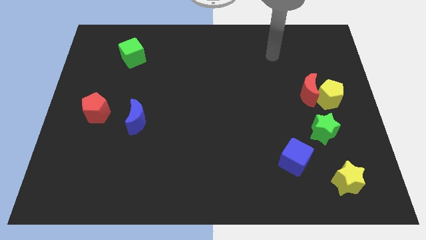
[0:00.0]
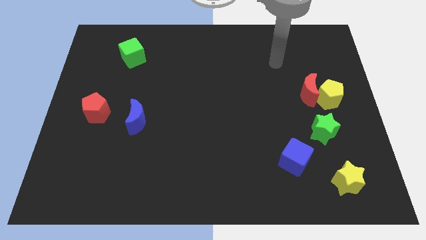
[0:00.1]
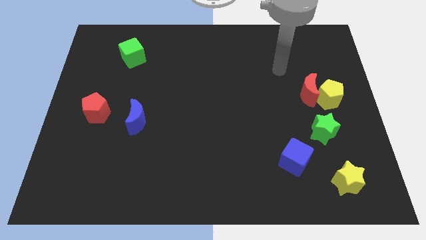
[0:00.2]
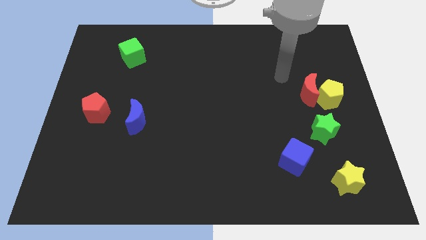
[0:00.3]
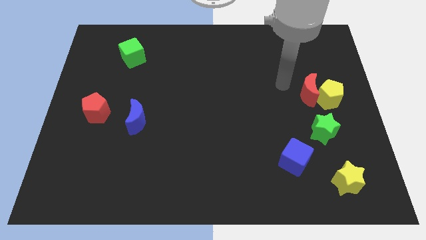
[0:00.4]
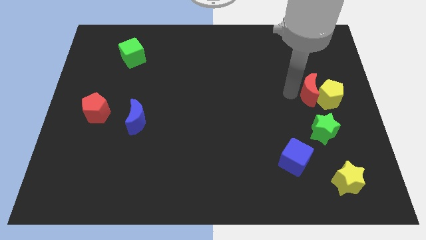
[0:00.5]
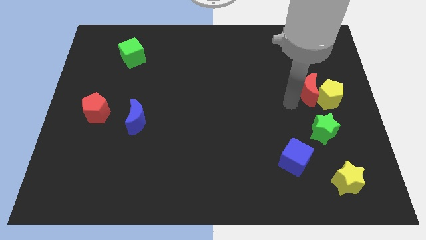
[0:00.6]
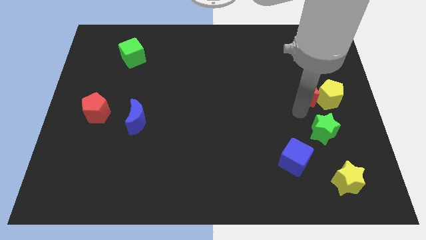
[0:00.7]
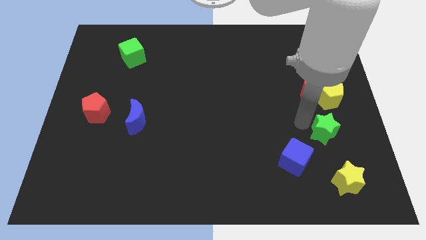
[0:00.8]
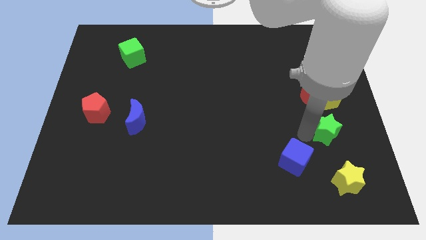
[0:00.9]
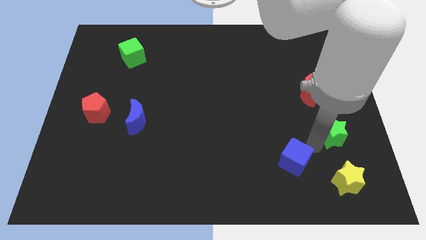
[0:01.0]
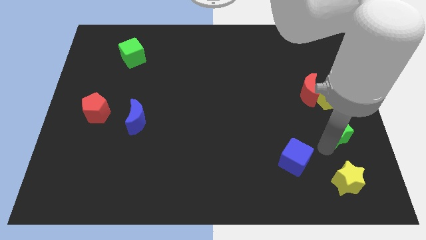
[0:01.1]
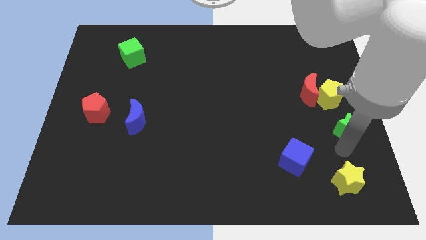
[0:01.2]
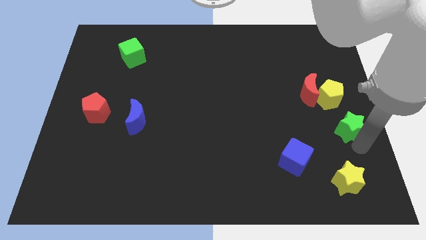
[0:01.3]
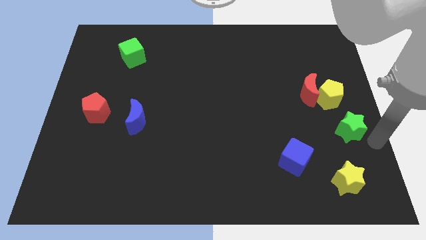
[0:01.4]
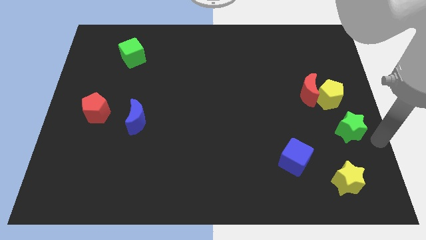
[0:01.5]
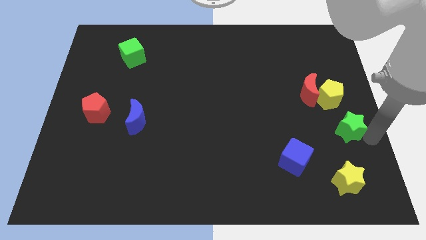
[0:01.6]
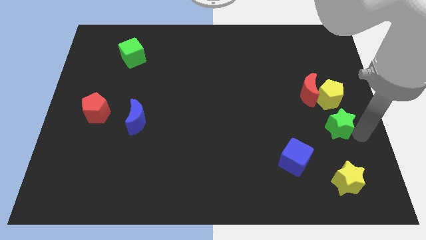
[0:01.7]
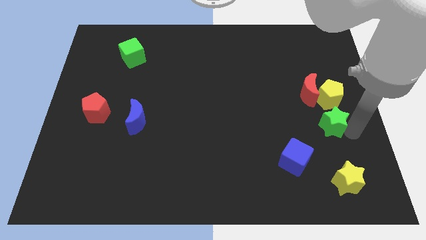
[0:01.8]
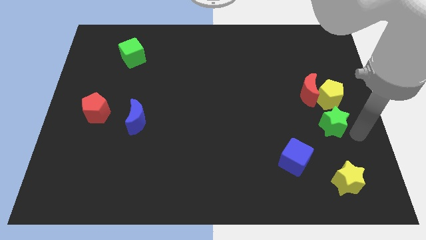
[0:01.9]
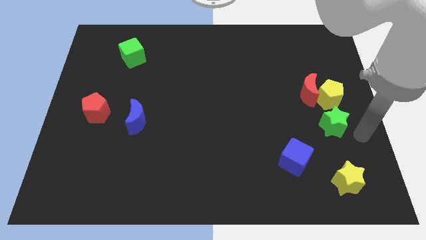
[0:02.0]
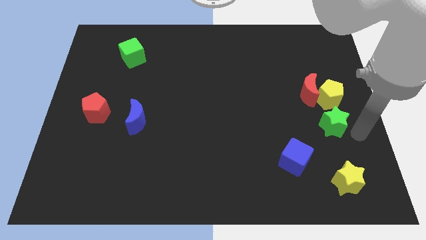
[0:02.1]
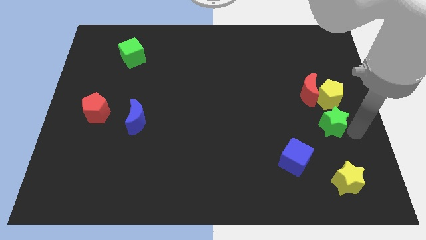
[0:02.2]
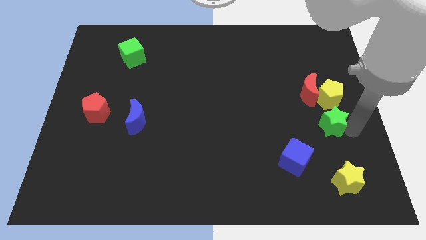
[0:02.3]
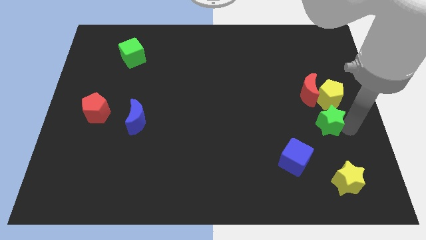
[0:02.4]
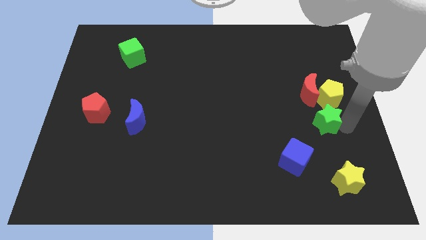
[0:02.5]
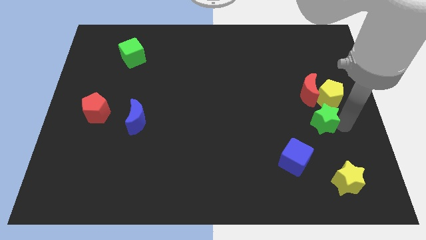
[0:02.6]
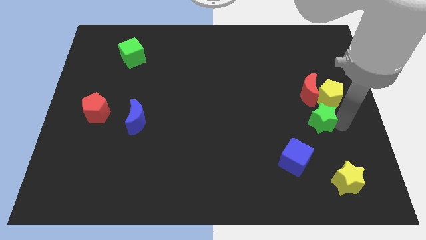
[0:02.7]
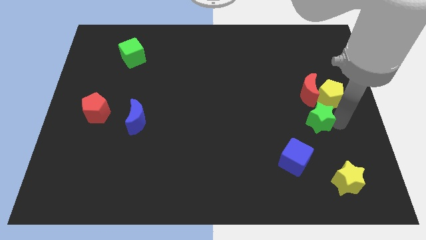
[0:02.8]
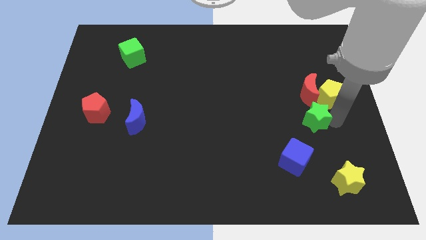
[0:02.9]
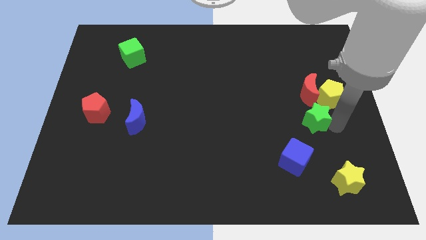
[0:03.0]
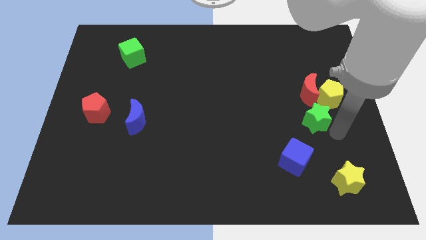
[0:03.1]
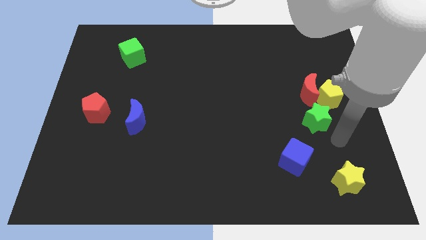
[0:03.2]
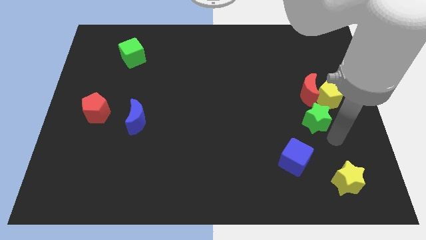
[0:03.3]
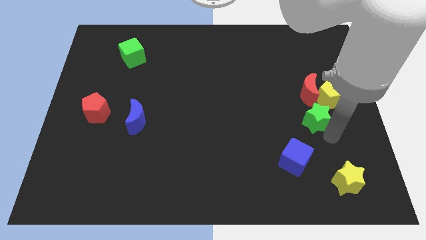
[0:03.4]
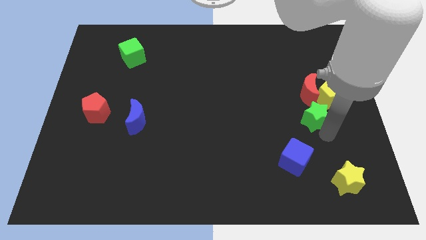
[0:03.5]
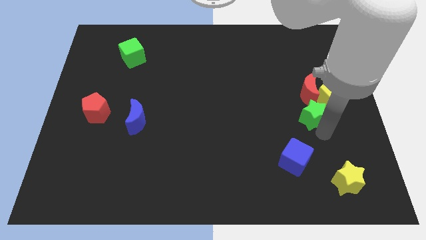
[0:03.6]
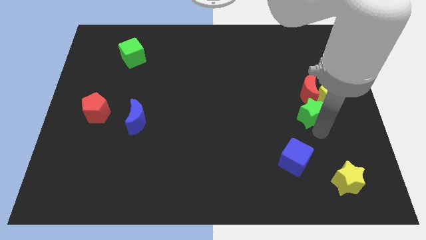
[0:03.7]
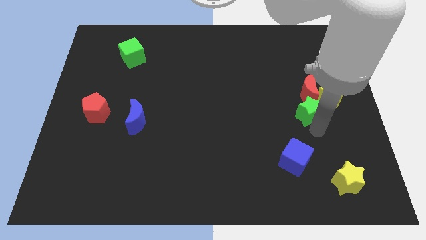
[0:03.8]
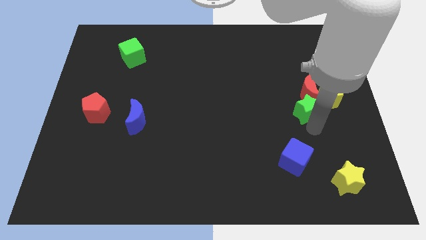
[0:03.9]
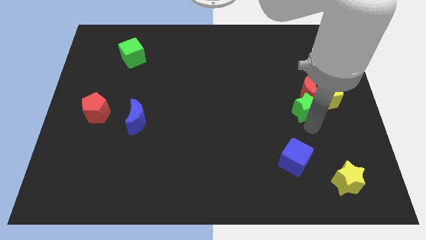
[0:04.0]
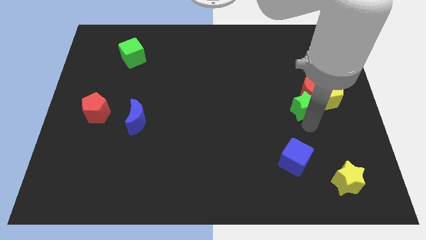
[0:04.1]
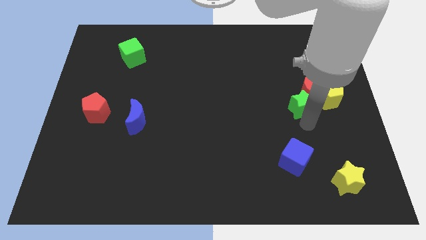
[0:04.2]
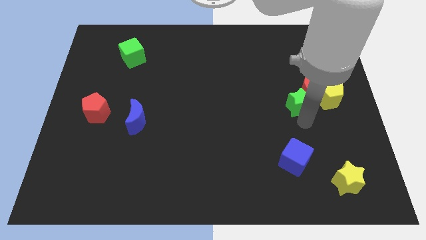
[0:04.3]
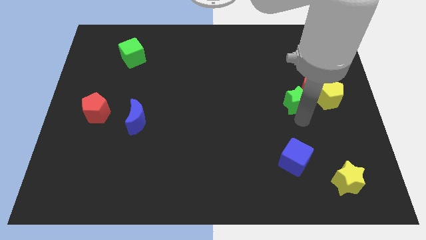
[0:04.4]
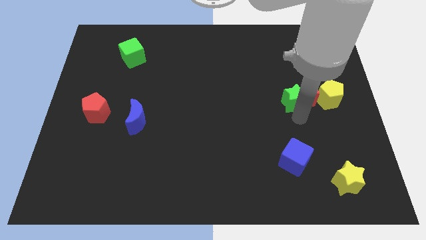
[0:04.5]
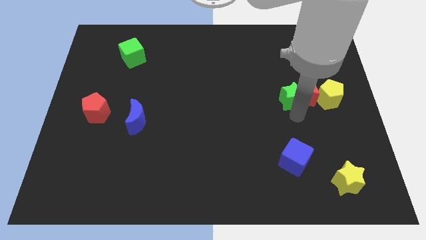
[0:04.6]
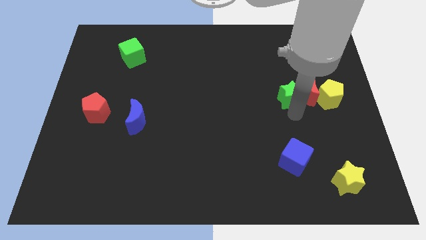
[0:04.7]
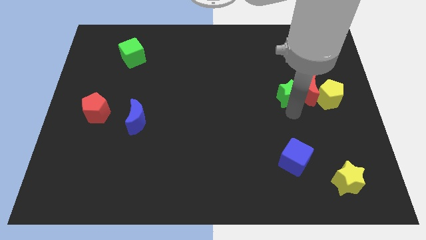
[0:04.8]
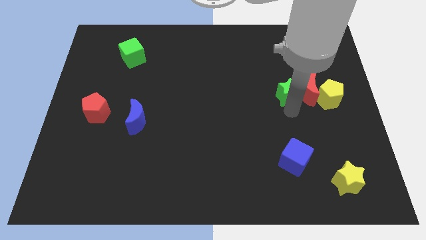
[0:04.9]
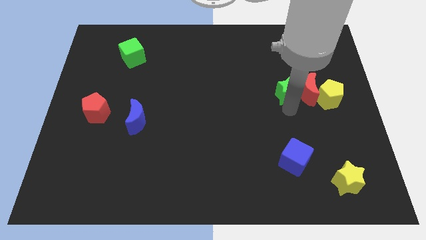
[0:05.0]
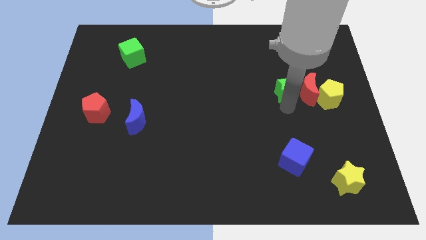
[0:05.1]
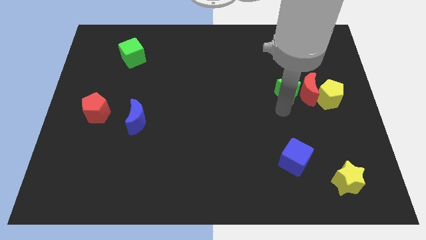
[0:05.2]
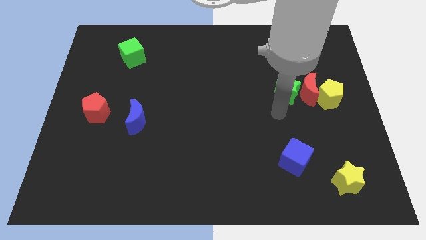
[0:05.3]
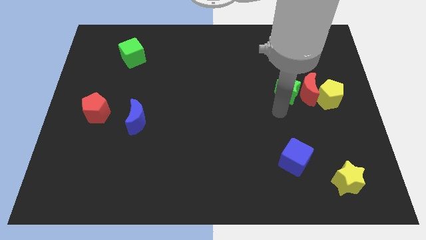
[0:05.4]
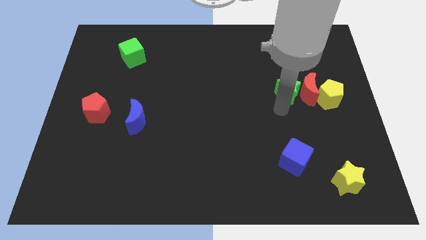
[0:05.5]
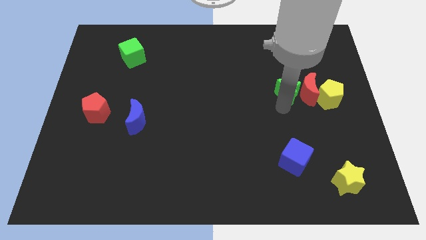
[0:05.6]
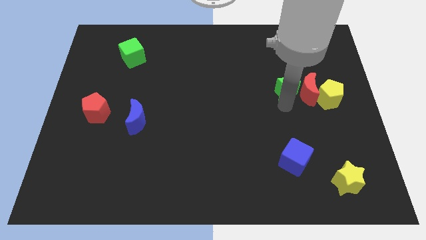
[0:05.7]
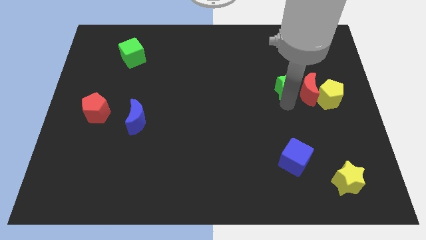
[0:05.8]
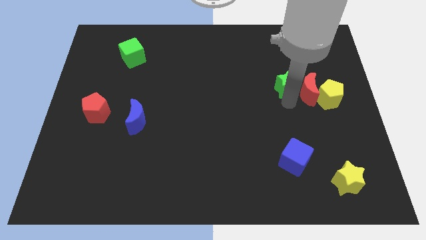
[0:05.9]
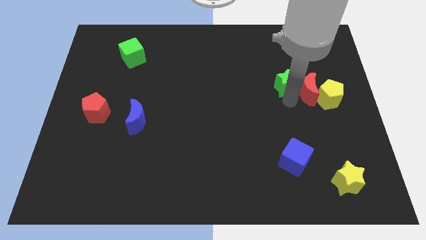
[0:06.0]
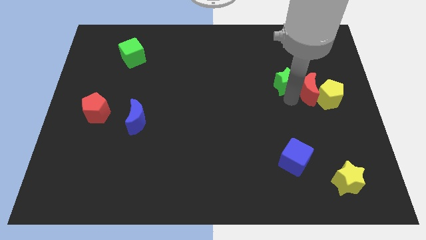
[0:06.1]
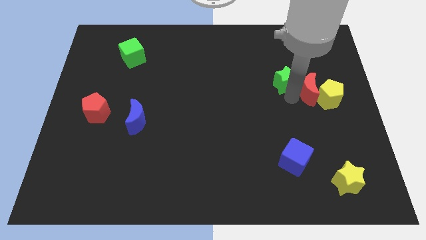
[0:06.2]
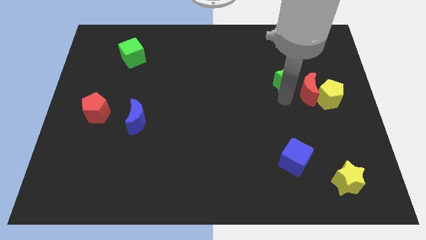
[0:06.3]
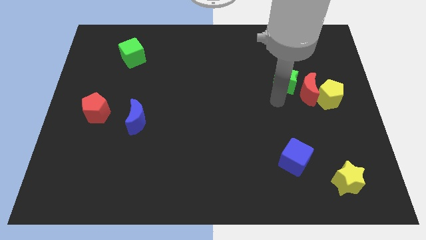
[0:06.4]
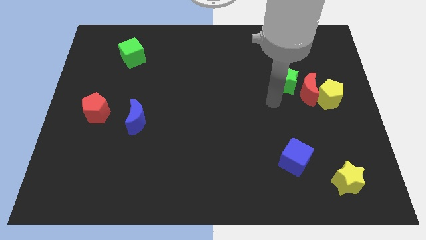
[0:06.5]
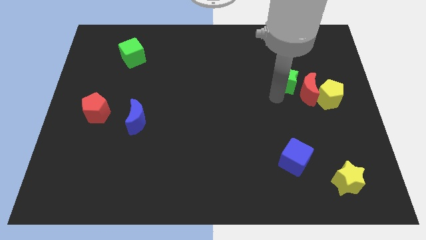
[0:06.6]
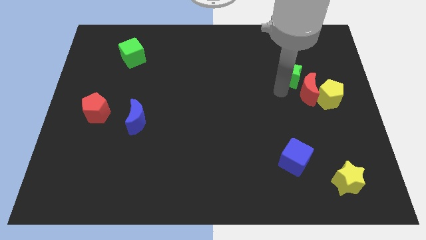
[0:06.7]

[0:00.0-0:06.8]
slide the green star above the red moon
